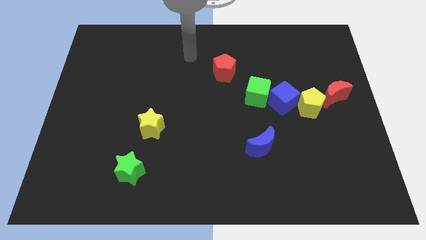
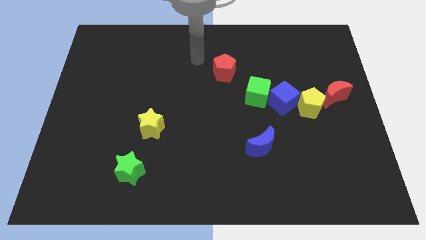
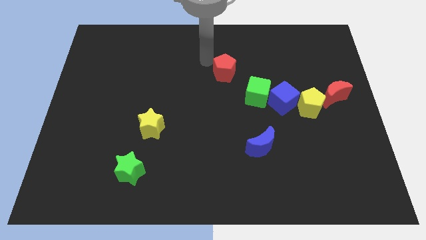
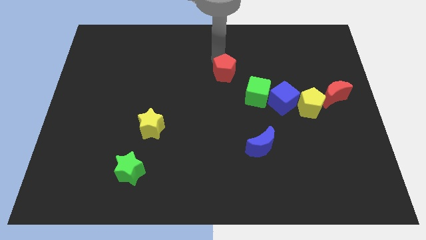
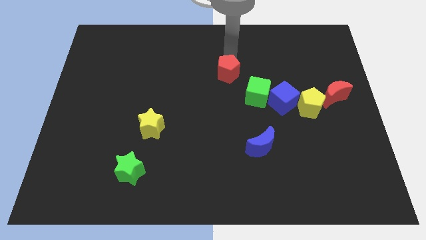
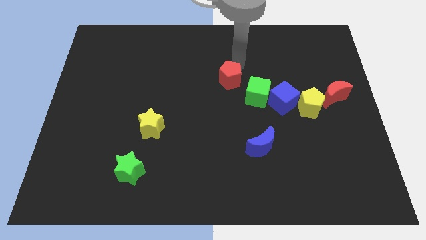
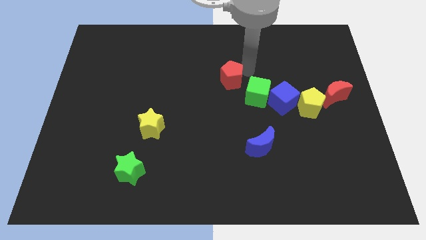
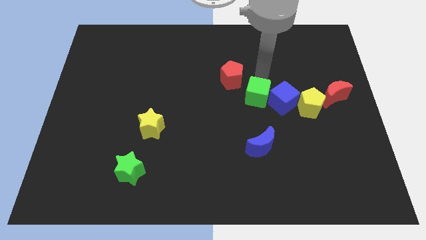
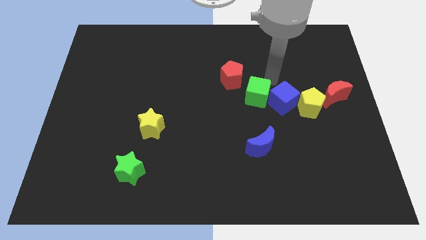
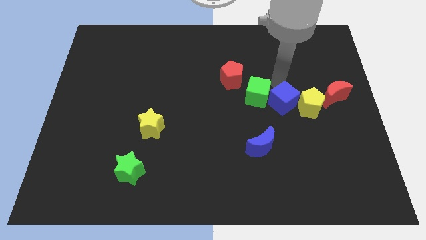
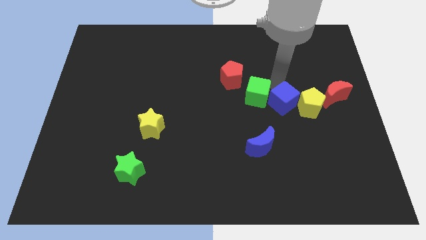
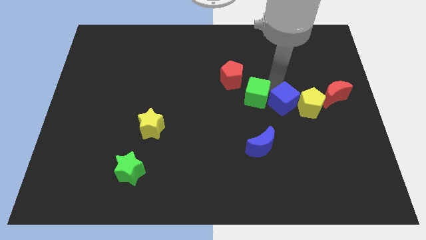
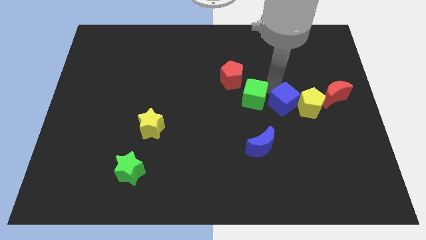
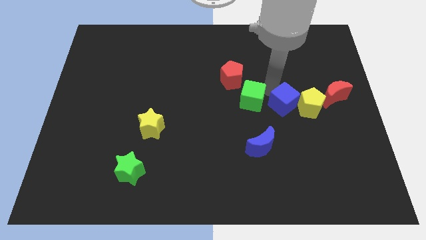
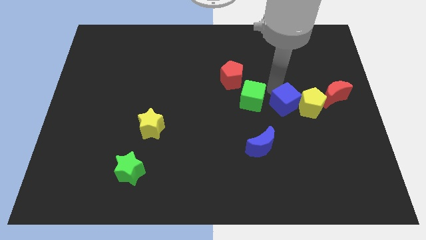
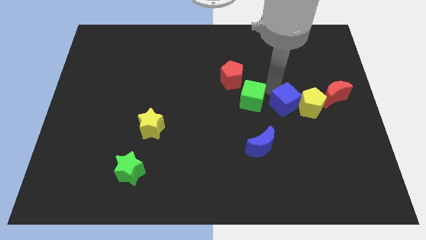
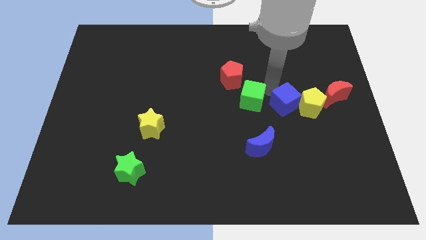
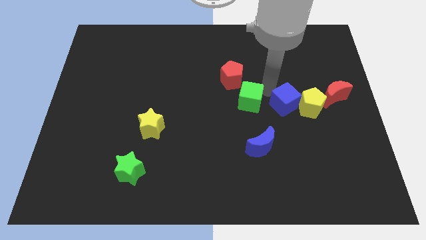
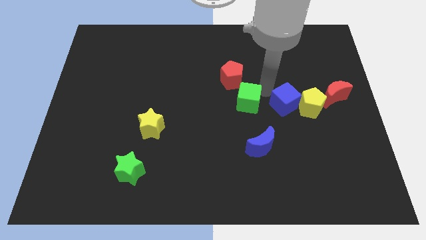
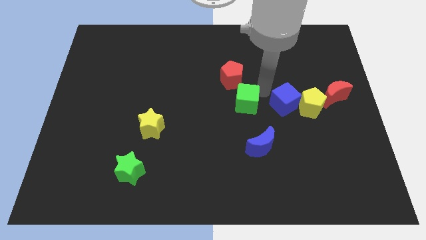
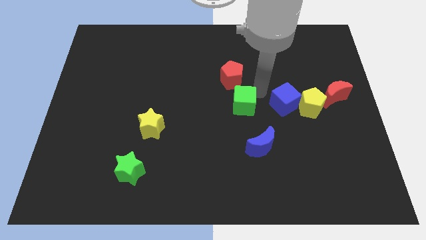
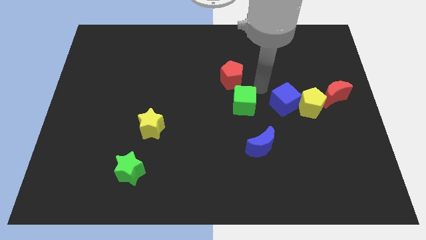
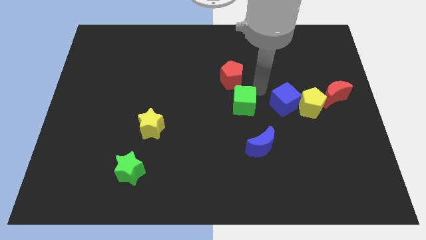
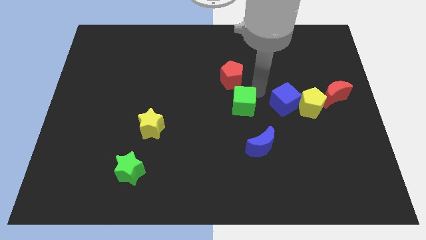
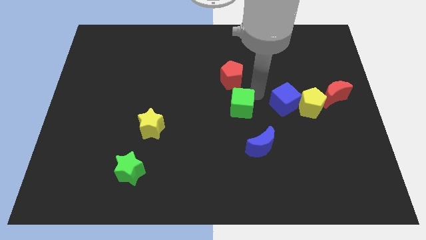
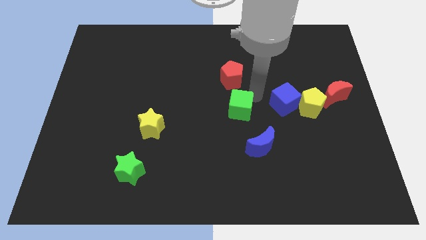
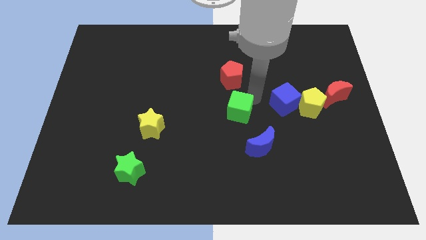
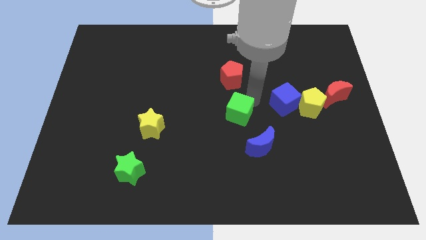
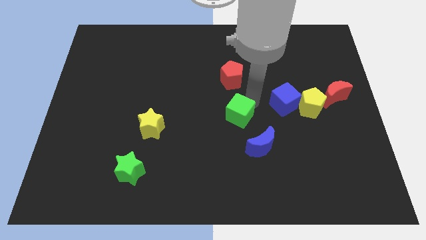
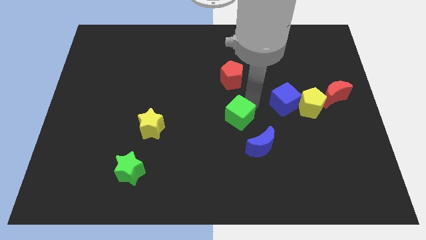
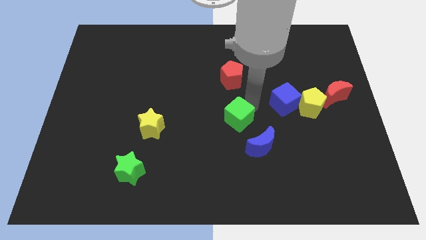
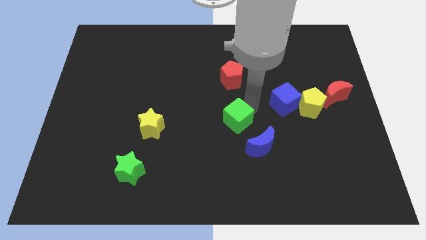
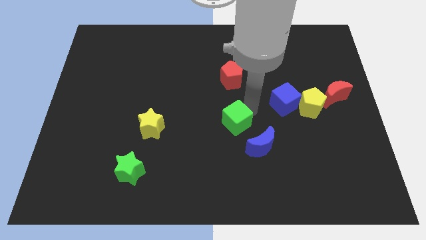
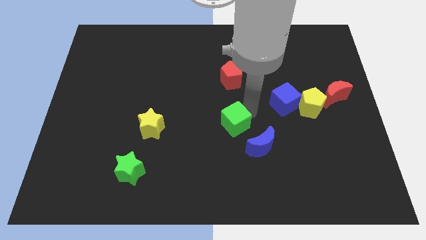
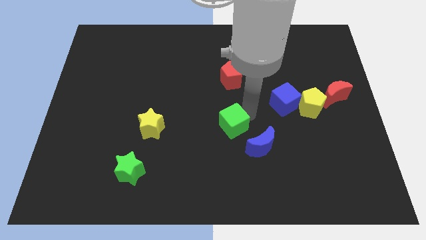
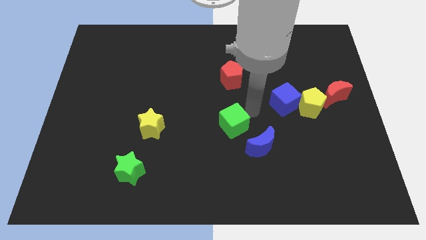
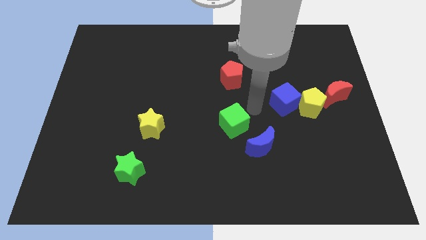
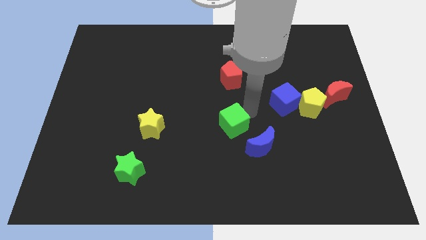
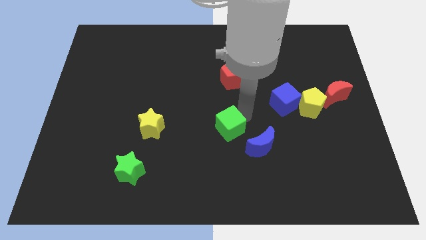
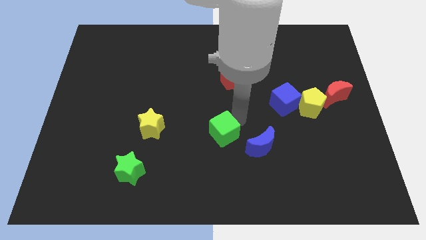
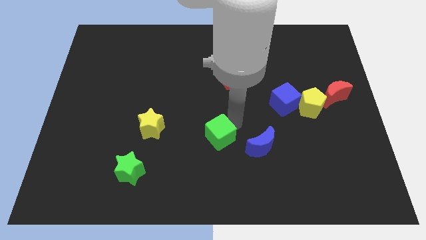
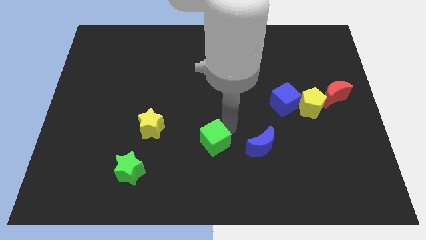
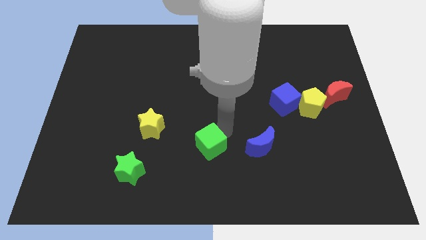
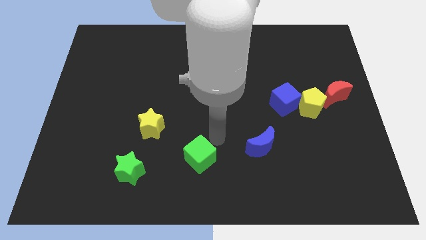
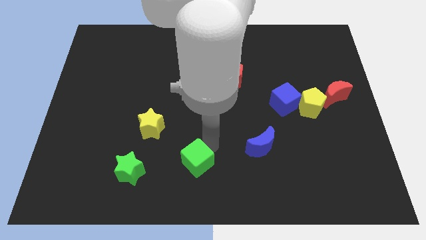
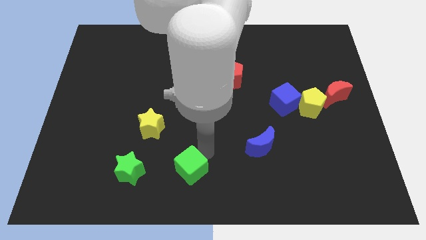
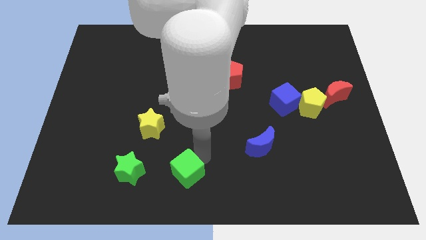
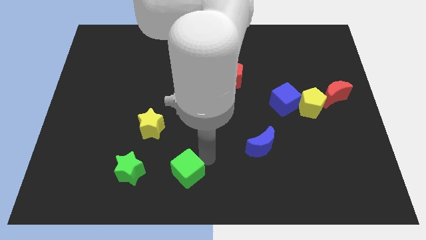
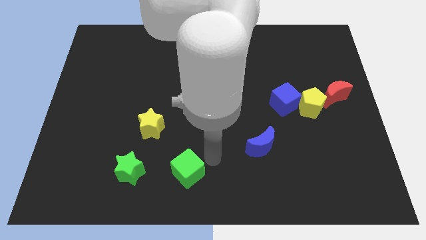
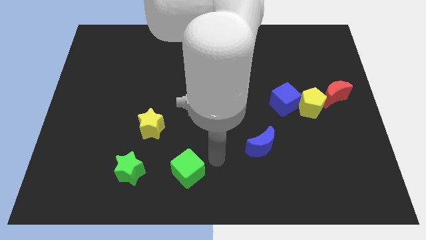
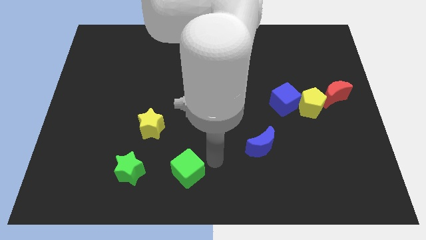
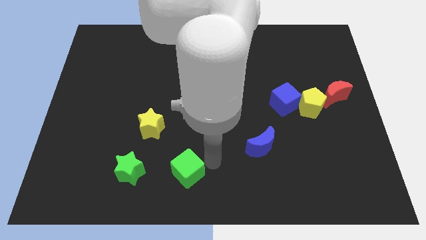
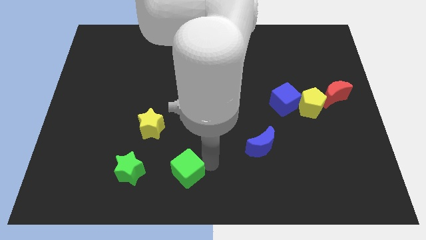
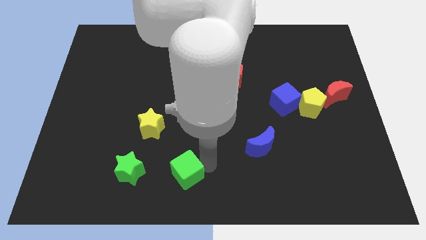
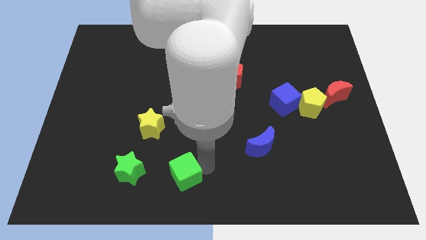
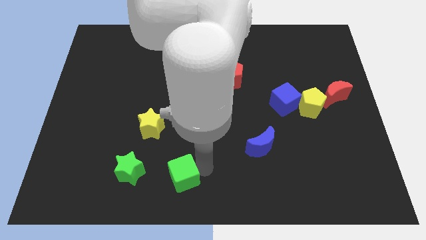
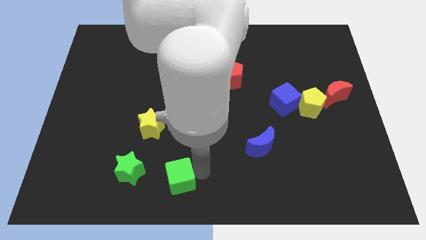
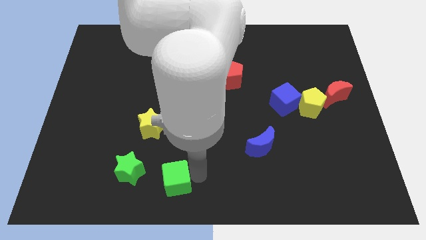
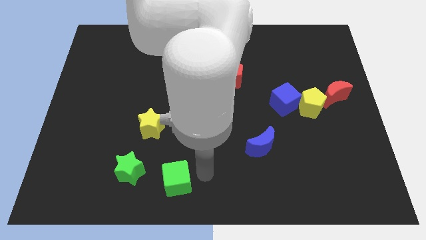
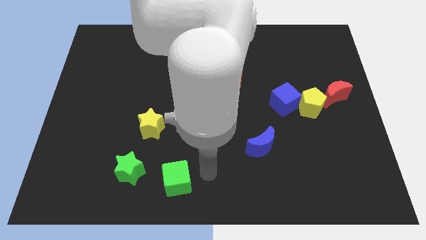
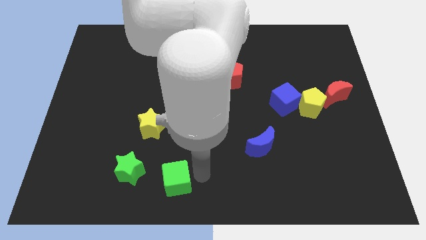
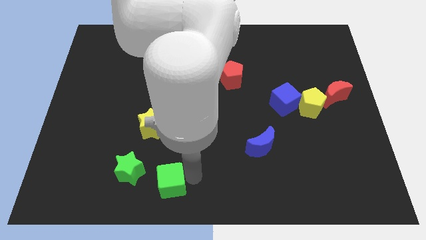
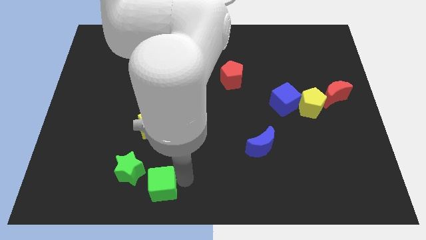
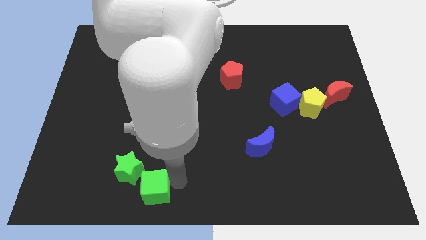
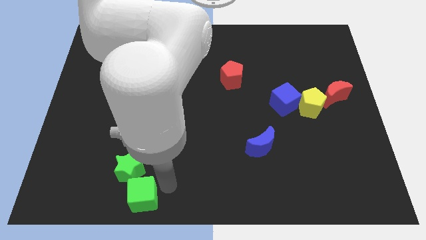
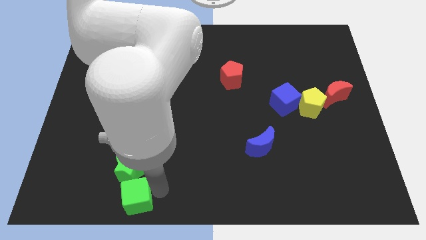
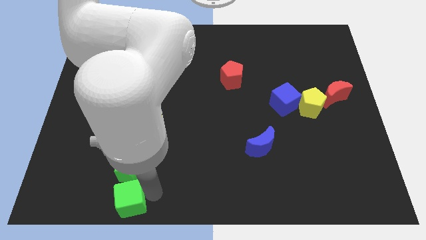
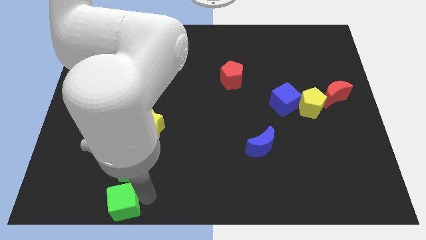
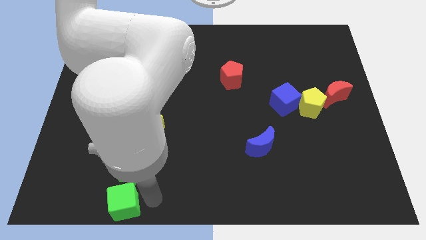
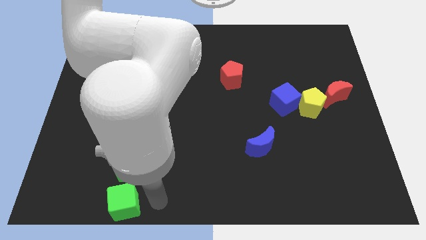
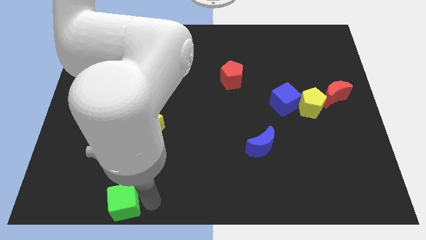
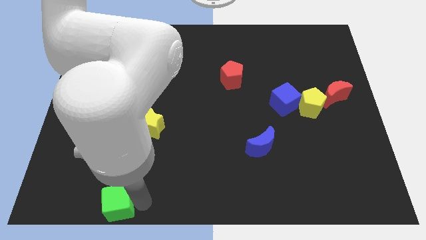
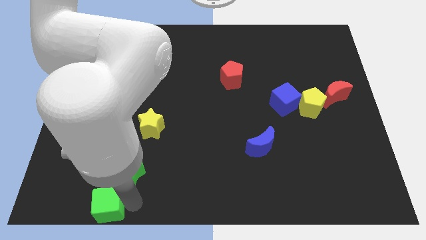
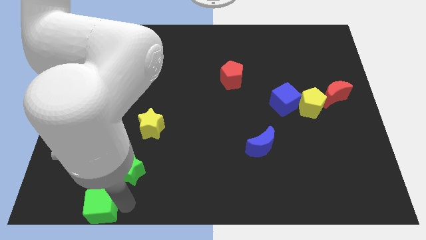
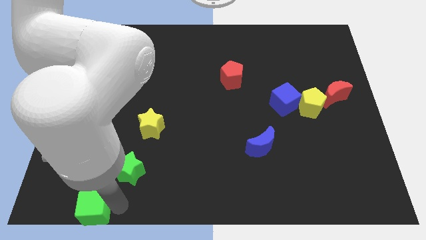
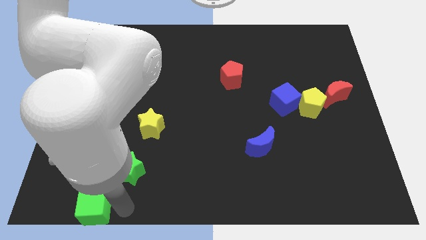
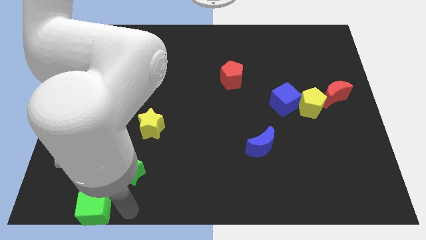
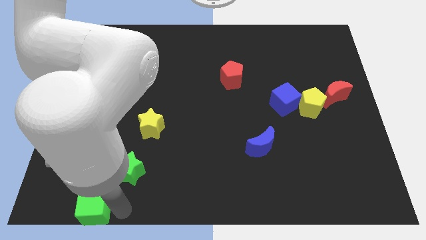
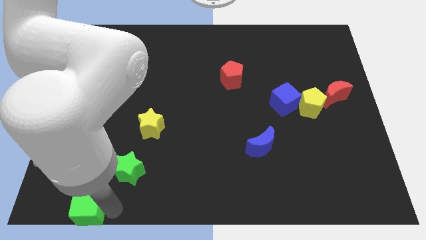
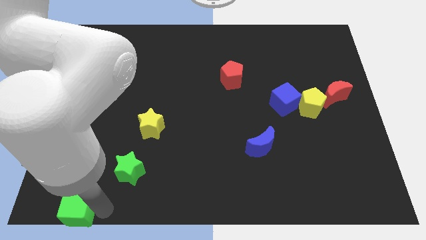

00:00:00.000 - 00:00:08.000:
put the green cube to the bottom left of the board
